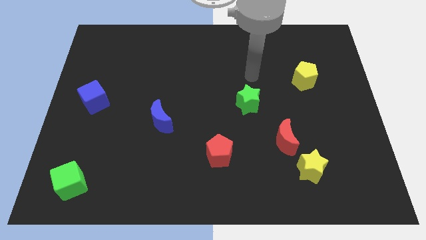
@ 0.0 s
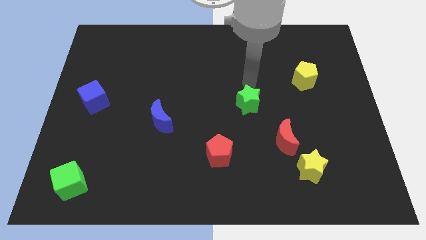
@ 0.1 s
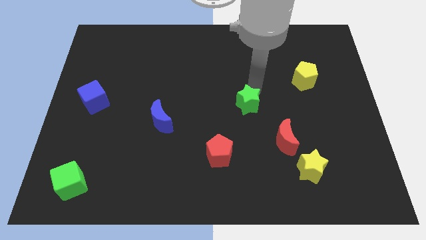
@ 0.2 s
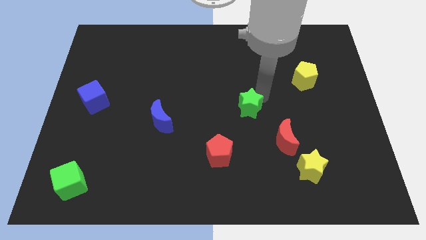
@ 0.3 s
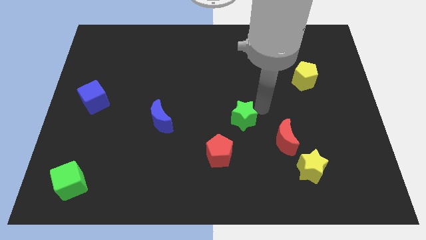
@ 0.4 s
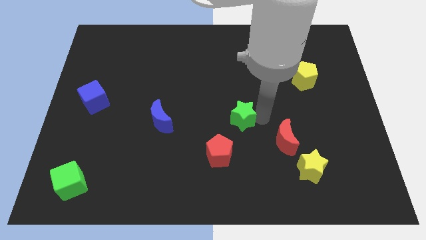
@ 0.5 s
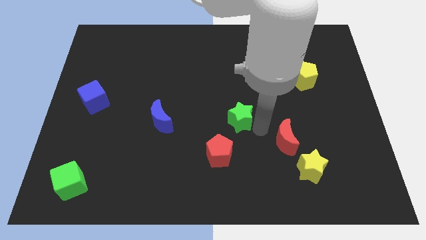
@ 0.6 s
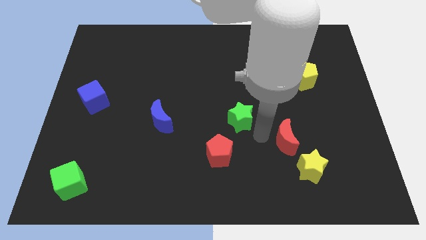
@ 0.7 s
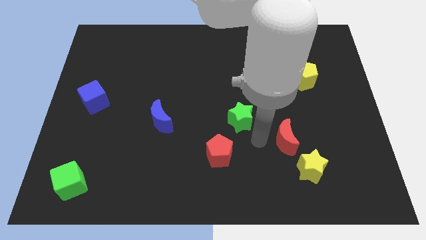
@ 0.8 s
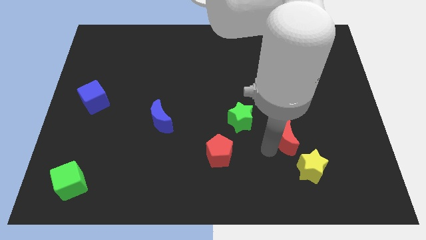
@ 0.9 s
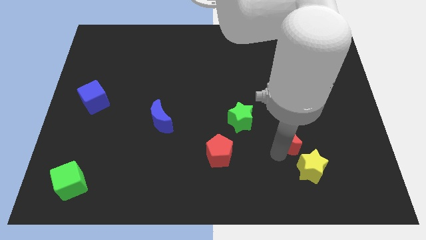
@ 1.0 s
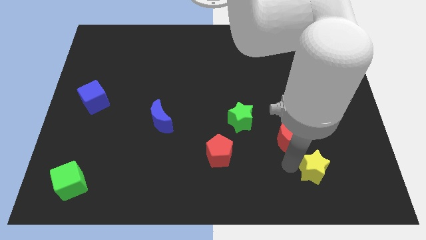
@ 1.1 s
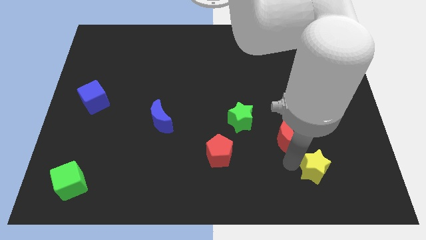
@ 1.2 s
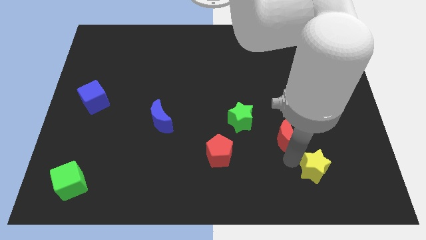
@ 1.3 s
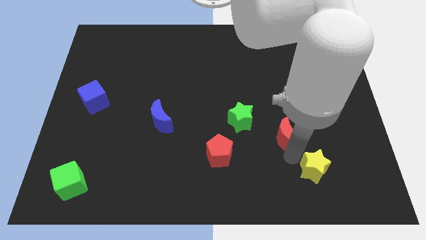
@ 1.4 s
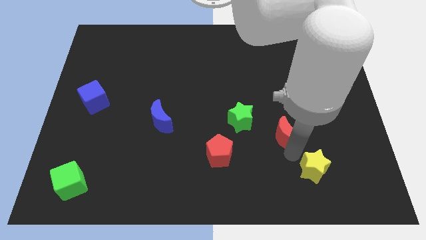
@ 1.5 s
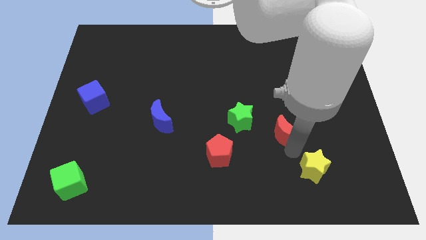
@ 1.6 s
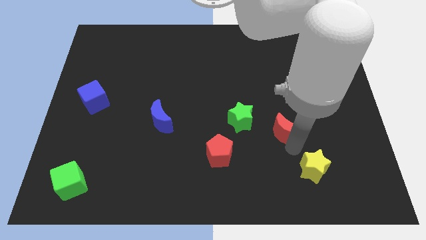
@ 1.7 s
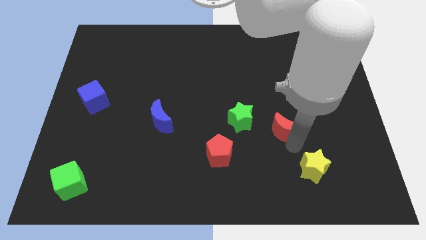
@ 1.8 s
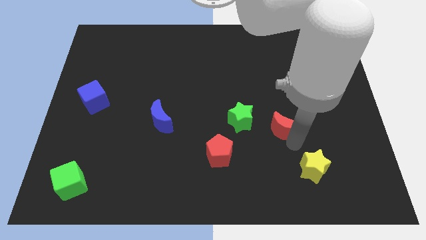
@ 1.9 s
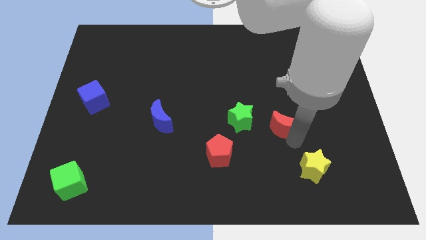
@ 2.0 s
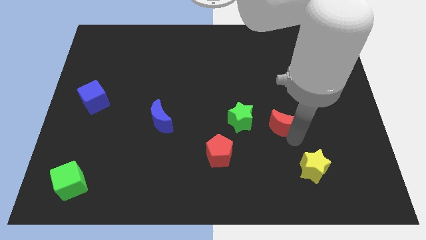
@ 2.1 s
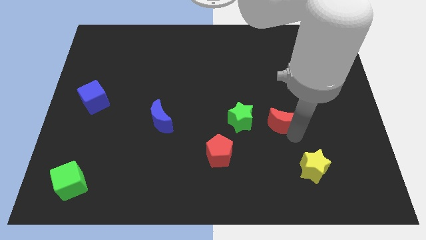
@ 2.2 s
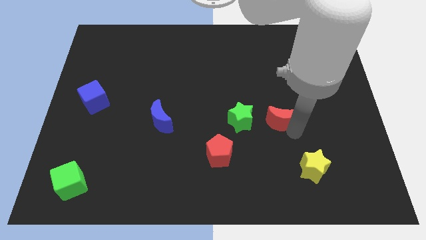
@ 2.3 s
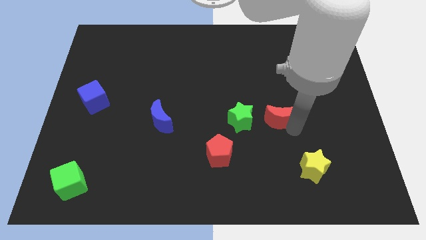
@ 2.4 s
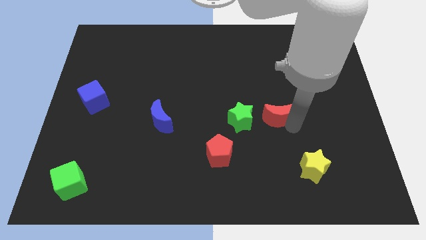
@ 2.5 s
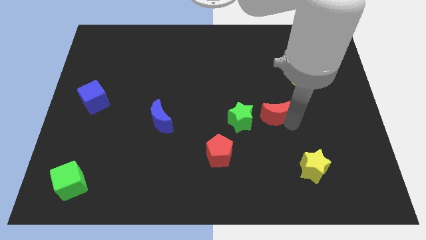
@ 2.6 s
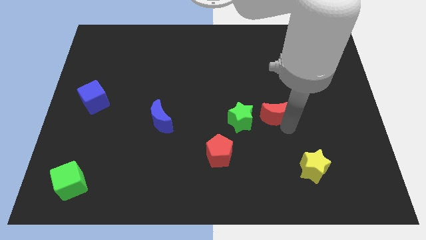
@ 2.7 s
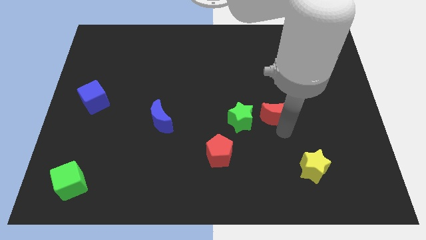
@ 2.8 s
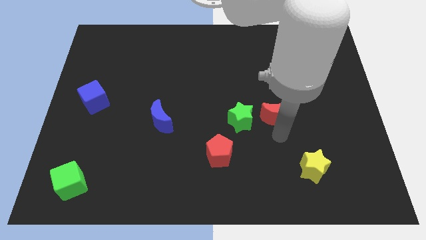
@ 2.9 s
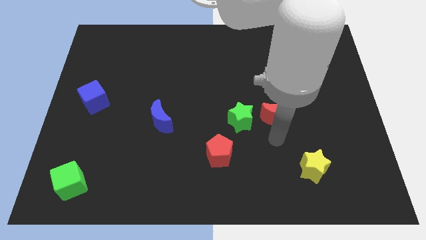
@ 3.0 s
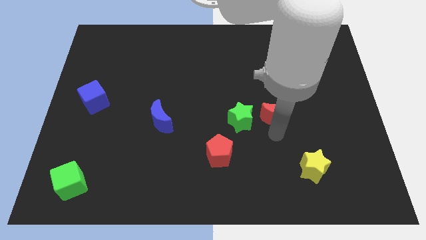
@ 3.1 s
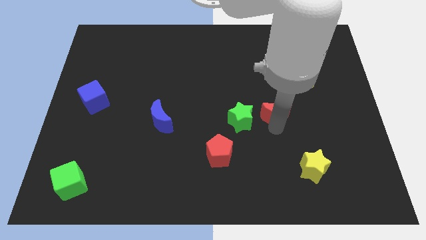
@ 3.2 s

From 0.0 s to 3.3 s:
slightly push the red moon up

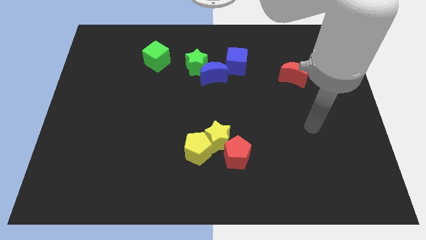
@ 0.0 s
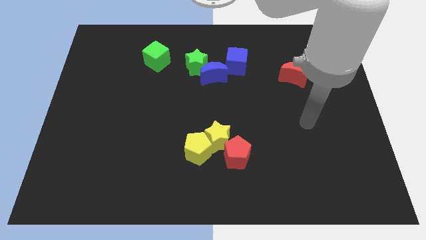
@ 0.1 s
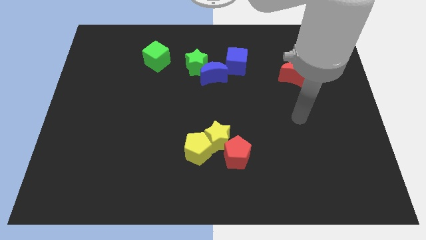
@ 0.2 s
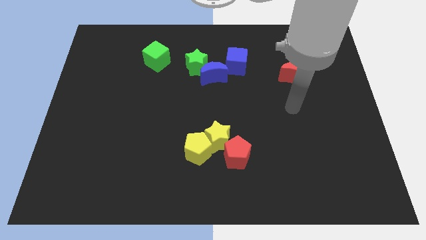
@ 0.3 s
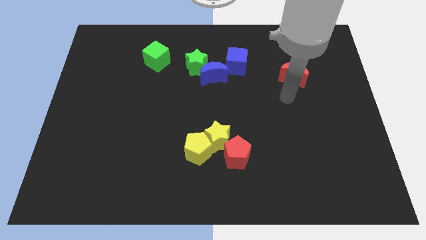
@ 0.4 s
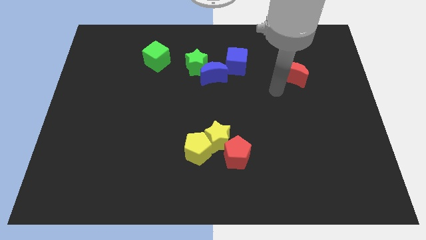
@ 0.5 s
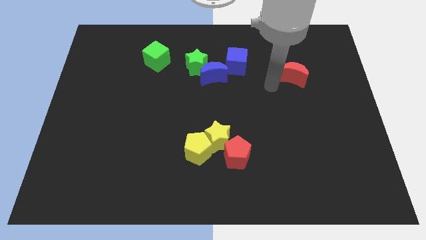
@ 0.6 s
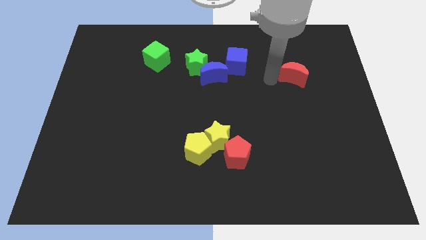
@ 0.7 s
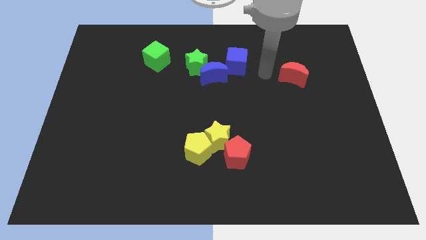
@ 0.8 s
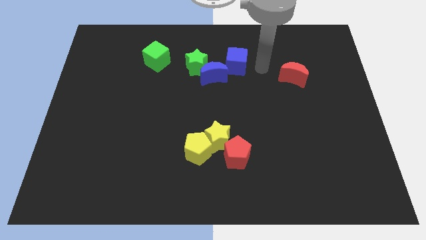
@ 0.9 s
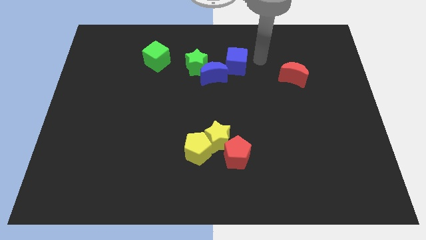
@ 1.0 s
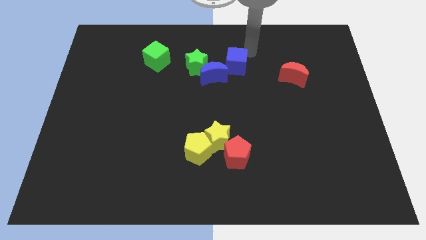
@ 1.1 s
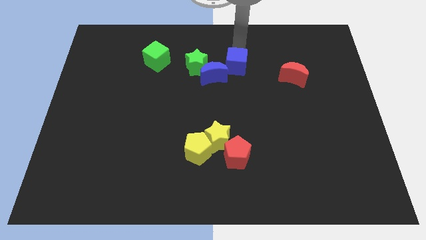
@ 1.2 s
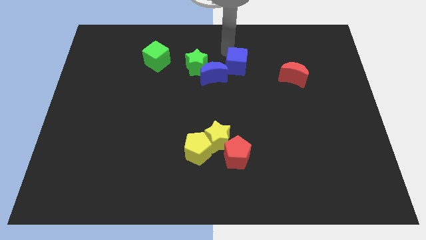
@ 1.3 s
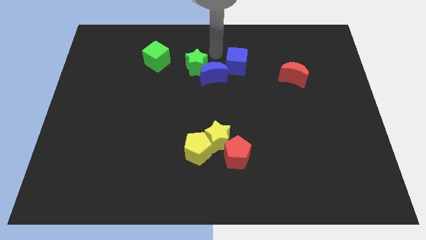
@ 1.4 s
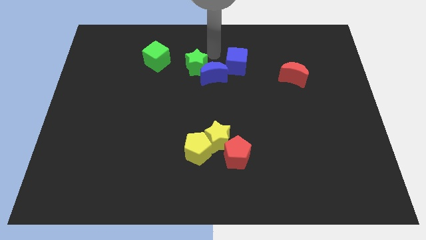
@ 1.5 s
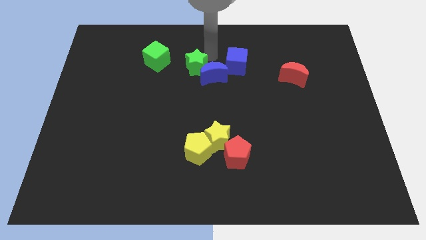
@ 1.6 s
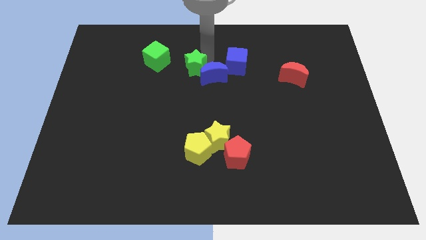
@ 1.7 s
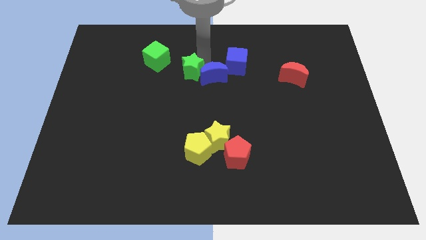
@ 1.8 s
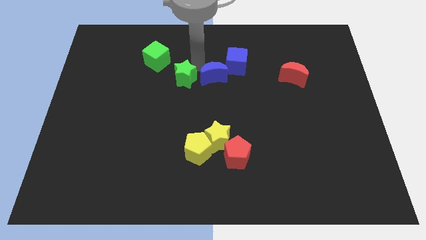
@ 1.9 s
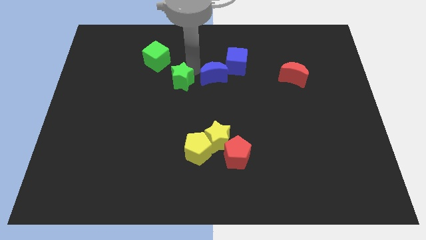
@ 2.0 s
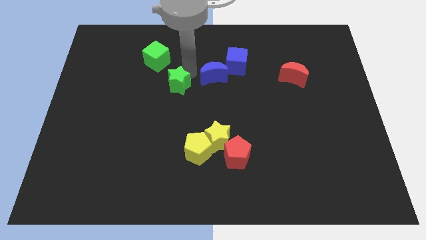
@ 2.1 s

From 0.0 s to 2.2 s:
slightly push the green star down and left

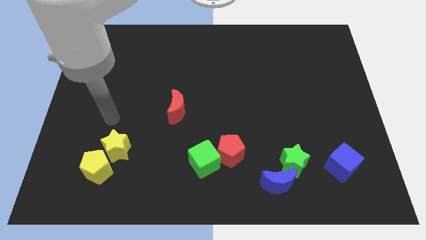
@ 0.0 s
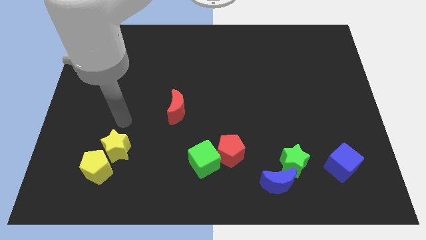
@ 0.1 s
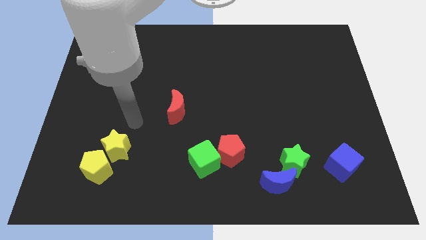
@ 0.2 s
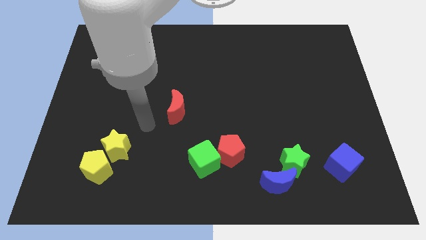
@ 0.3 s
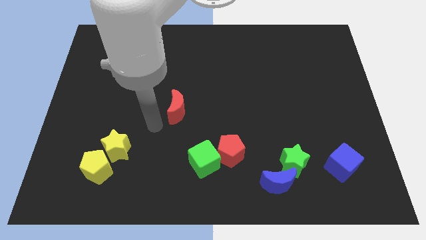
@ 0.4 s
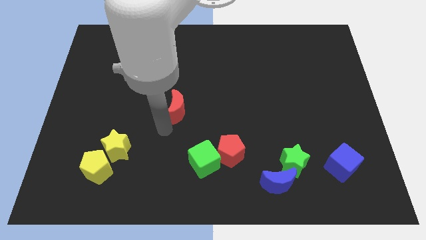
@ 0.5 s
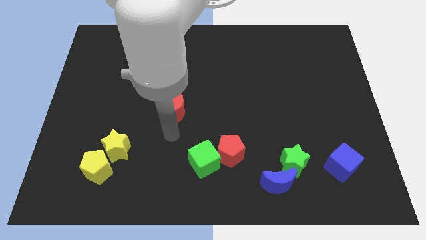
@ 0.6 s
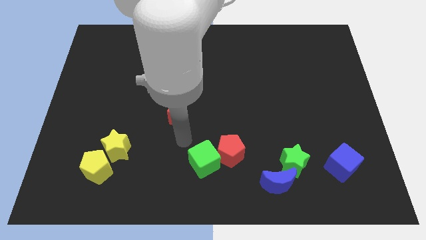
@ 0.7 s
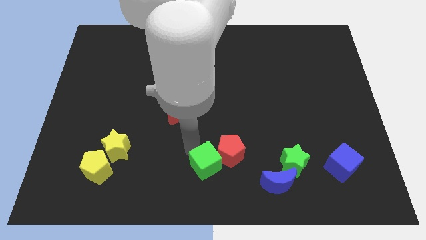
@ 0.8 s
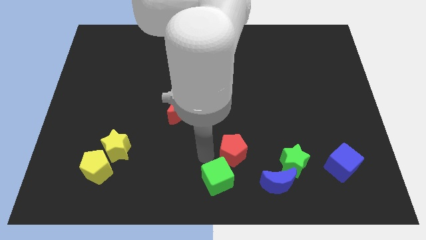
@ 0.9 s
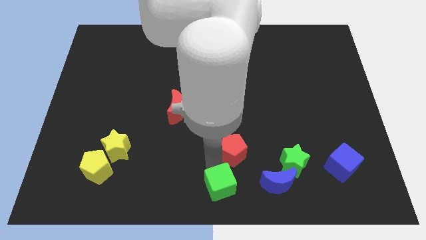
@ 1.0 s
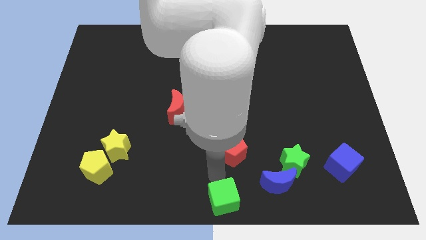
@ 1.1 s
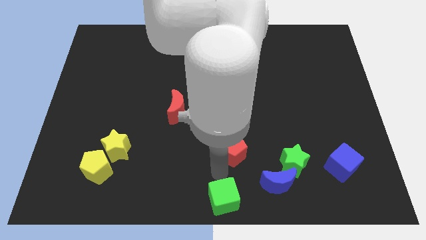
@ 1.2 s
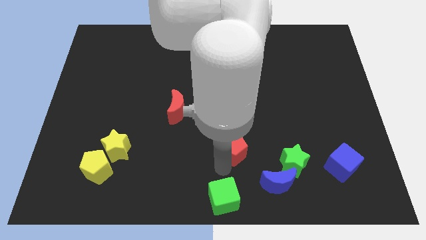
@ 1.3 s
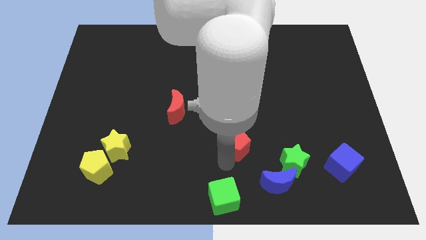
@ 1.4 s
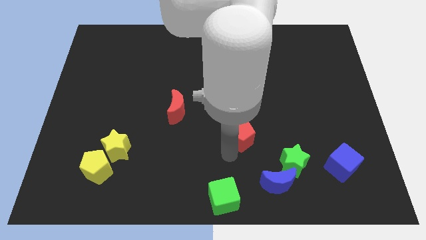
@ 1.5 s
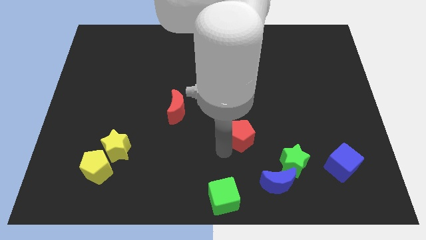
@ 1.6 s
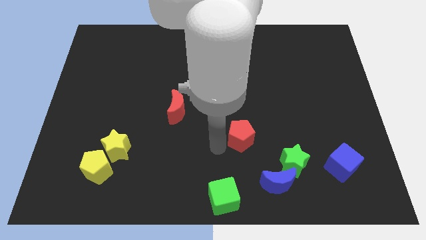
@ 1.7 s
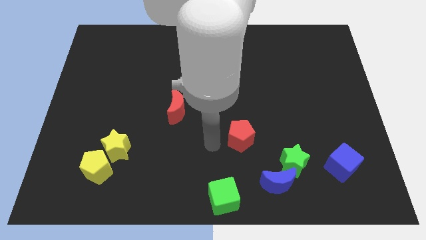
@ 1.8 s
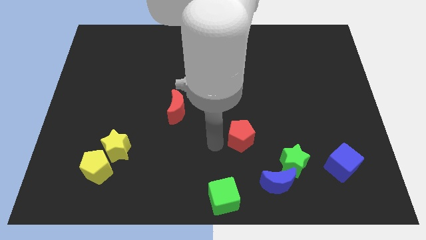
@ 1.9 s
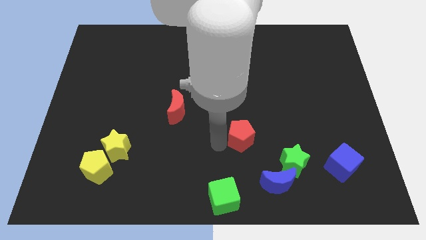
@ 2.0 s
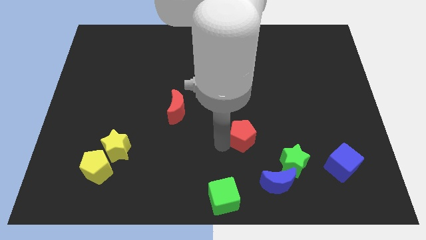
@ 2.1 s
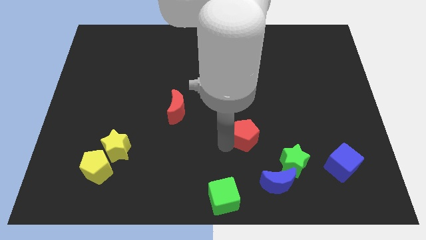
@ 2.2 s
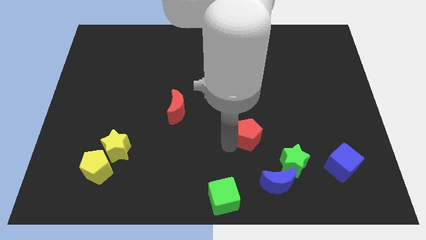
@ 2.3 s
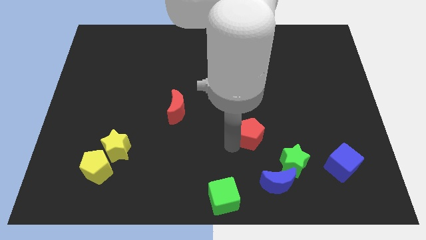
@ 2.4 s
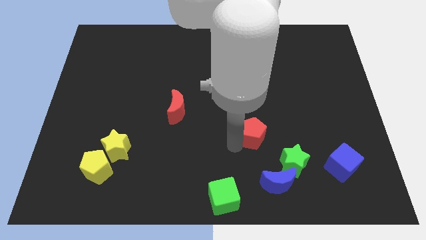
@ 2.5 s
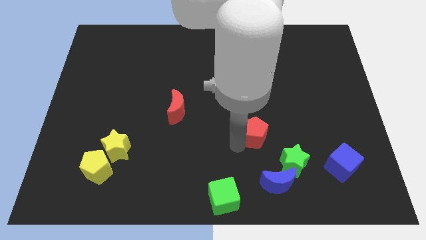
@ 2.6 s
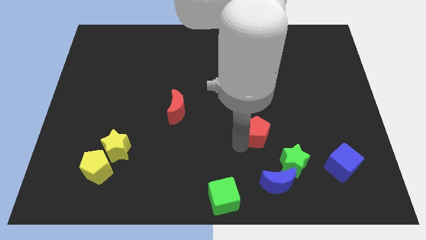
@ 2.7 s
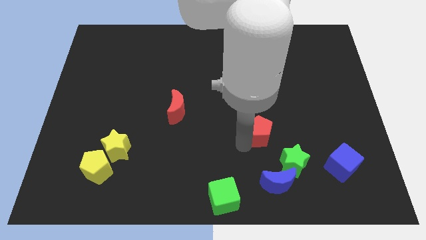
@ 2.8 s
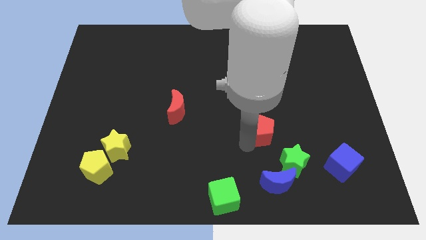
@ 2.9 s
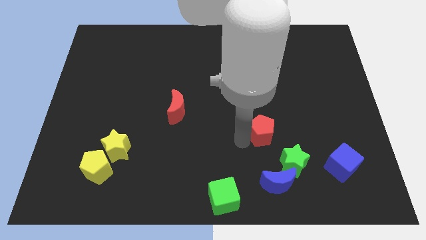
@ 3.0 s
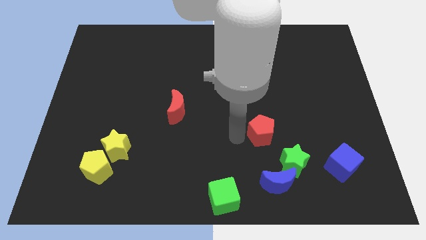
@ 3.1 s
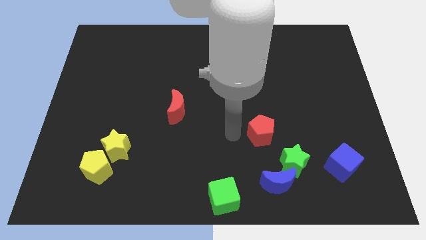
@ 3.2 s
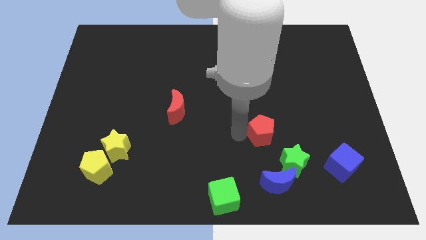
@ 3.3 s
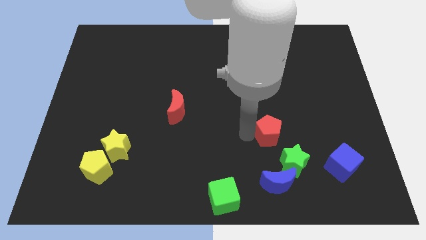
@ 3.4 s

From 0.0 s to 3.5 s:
slightly move the red pentagon to the right
